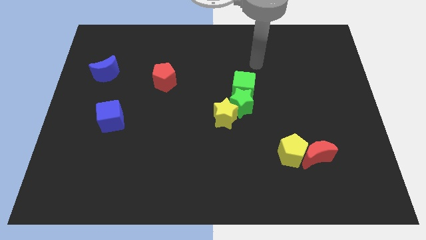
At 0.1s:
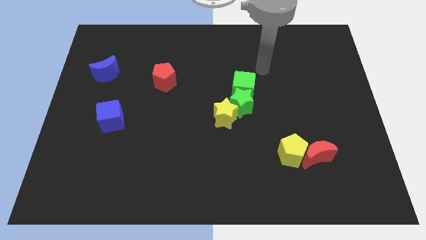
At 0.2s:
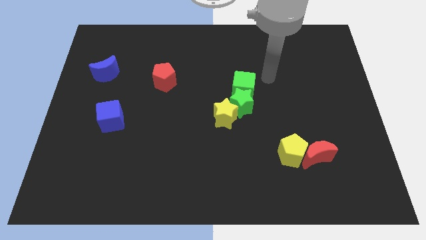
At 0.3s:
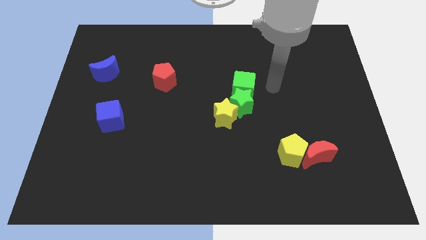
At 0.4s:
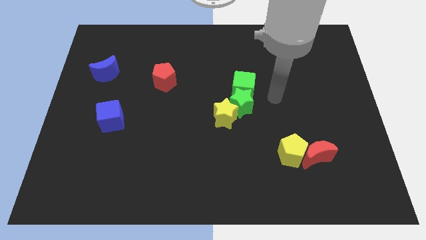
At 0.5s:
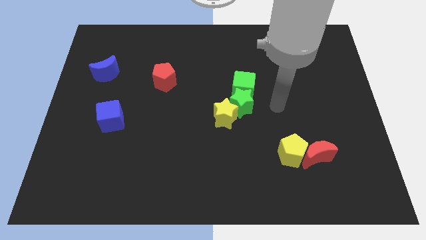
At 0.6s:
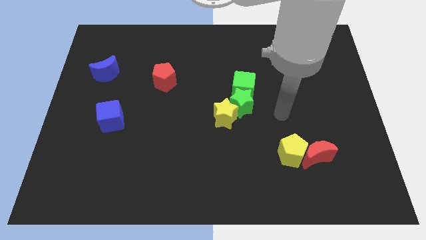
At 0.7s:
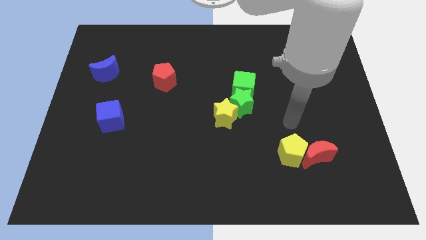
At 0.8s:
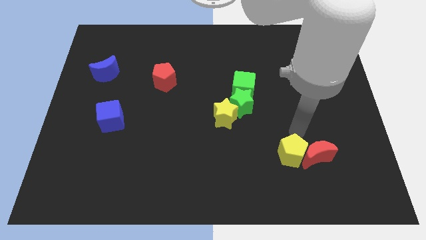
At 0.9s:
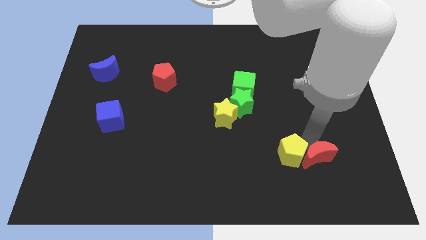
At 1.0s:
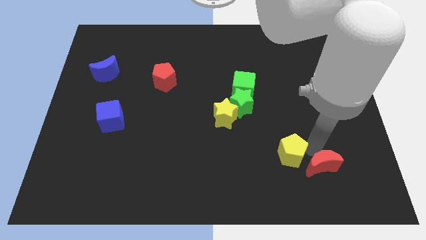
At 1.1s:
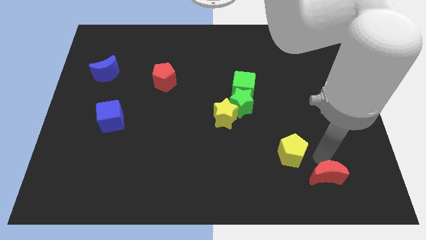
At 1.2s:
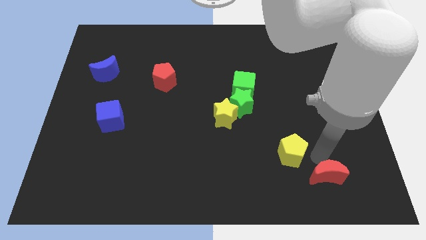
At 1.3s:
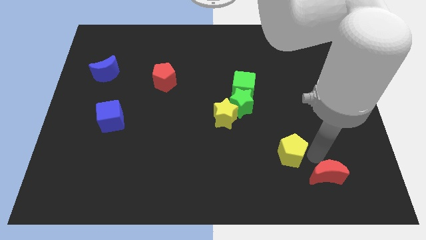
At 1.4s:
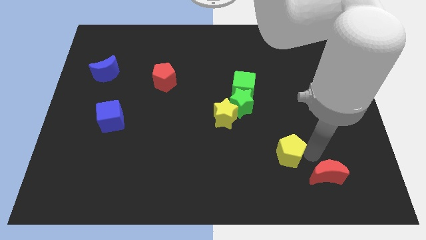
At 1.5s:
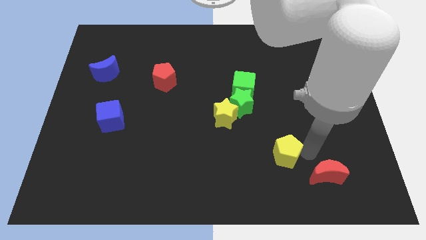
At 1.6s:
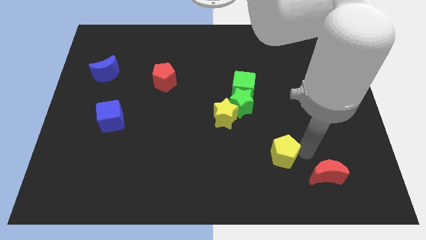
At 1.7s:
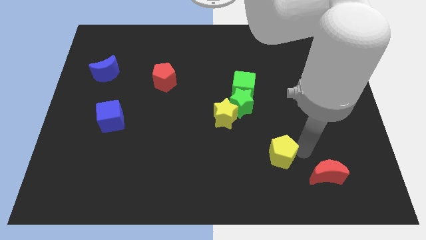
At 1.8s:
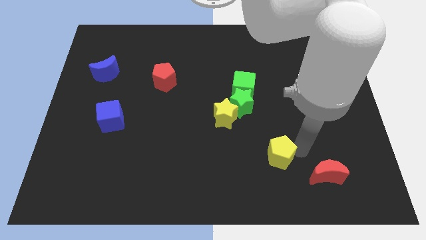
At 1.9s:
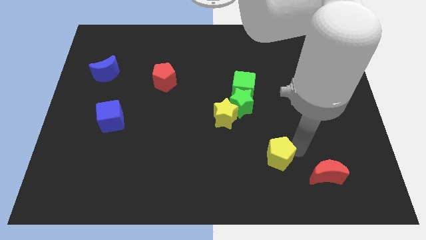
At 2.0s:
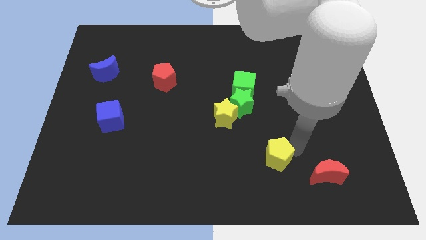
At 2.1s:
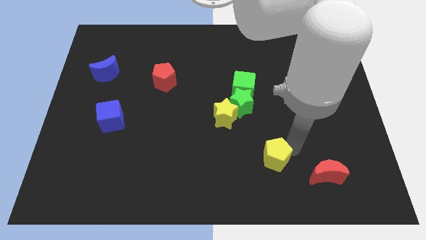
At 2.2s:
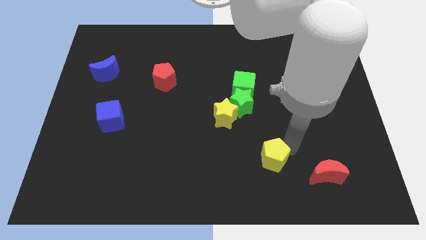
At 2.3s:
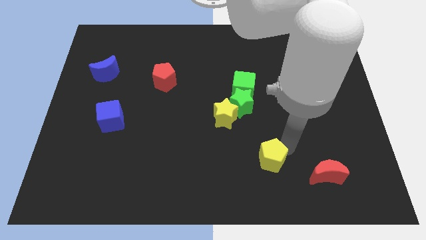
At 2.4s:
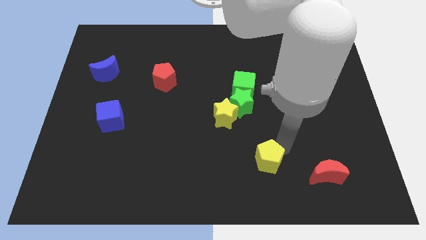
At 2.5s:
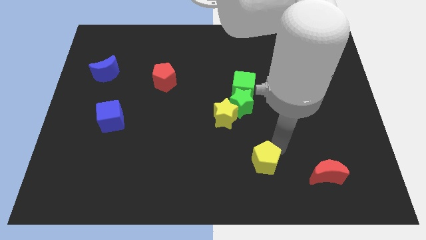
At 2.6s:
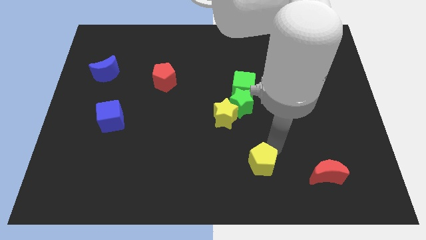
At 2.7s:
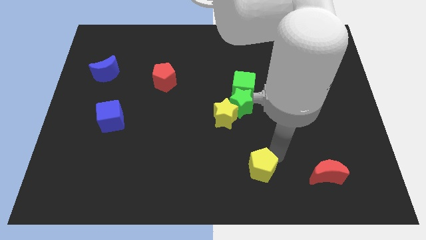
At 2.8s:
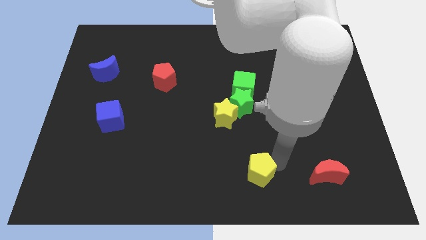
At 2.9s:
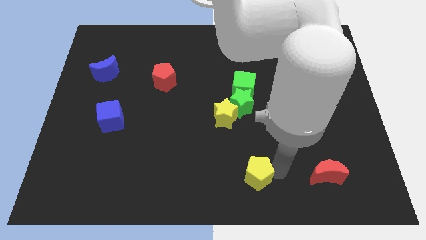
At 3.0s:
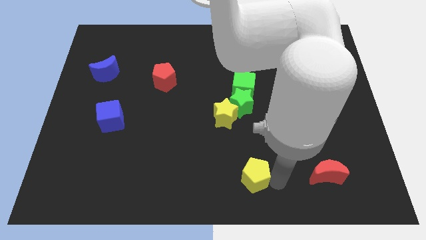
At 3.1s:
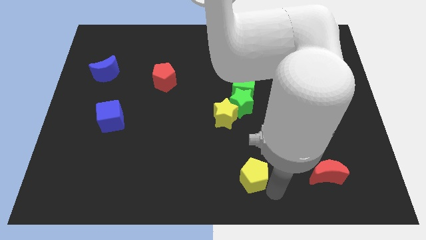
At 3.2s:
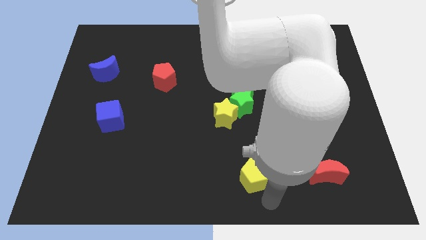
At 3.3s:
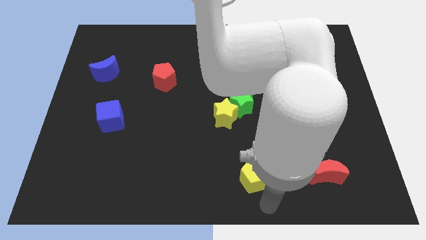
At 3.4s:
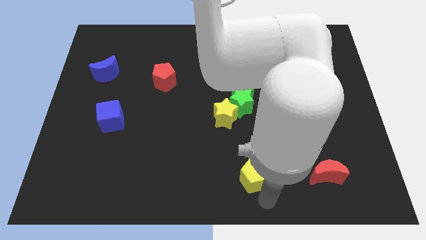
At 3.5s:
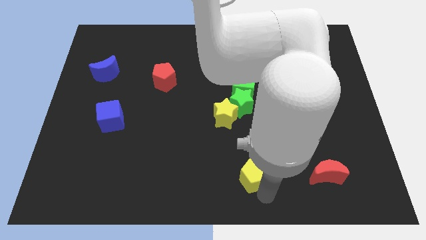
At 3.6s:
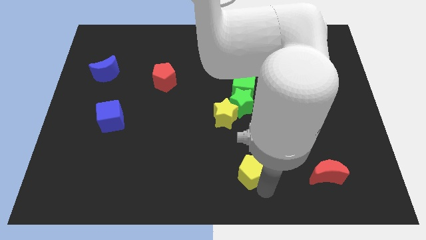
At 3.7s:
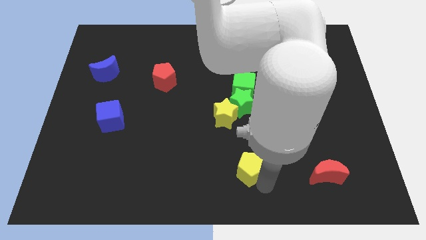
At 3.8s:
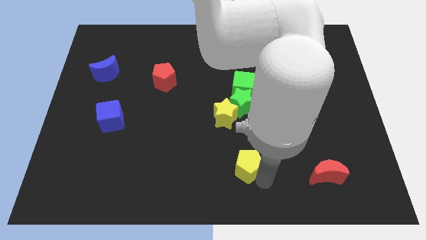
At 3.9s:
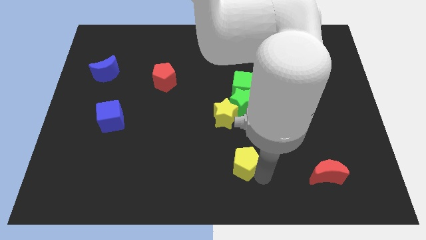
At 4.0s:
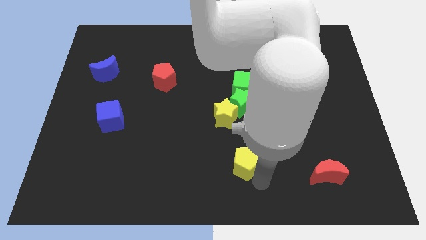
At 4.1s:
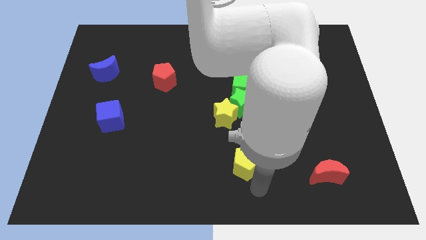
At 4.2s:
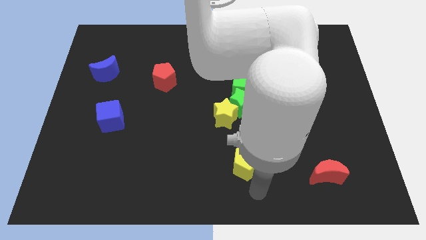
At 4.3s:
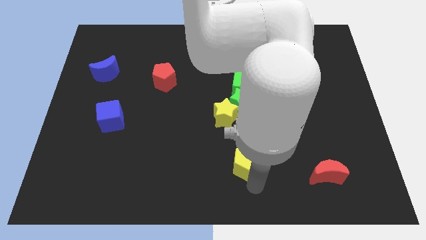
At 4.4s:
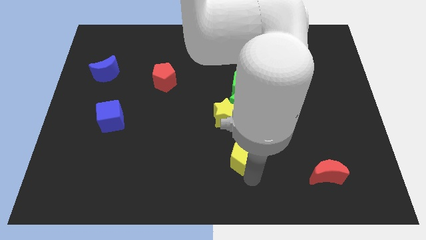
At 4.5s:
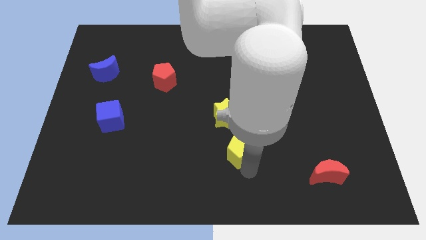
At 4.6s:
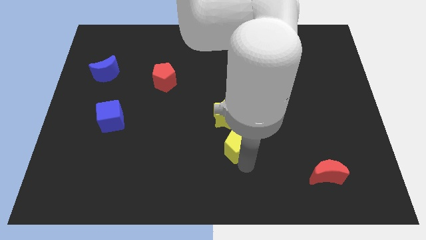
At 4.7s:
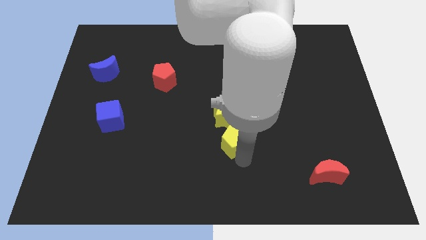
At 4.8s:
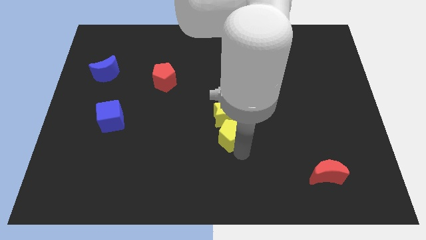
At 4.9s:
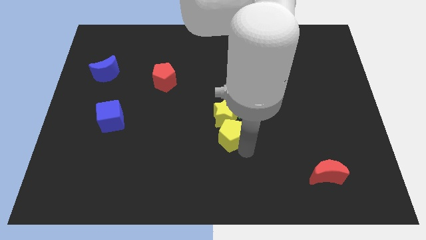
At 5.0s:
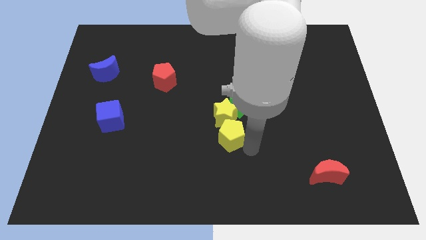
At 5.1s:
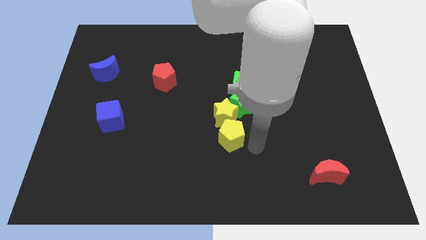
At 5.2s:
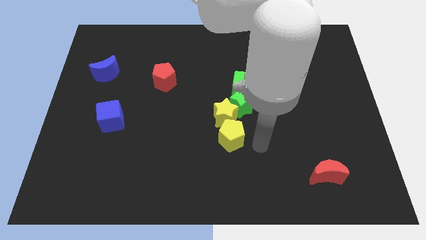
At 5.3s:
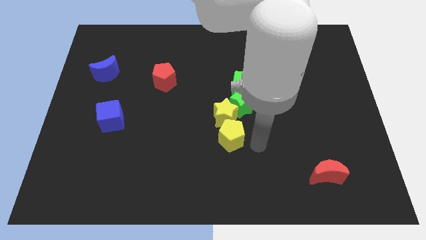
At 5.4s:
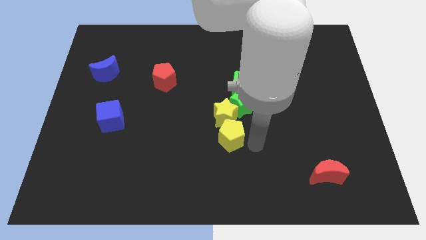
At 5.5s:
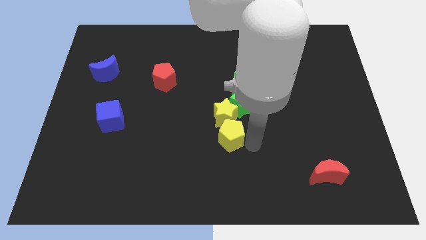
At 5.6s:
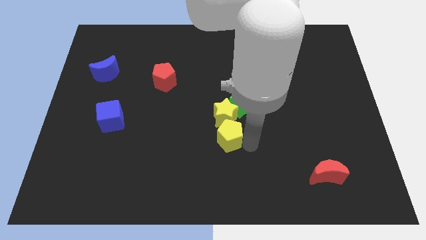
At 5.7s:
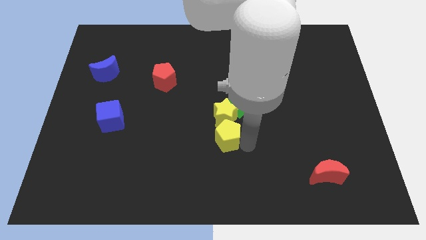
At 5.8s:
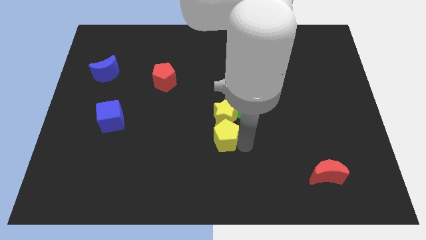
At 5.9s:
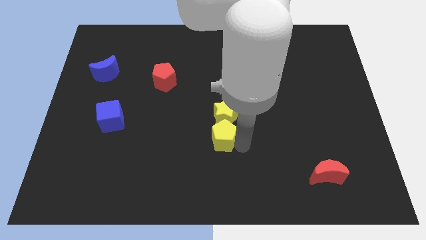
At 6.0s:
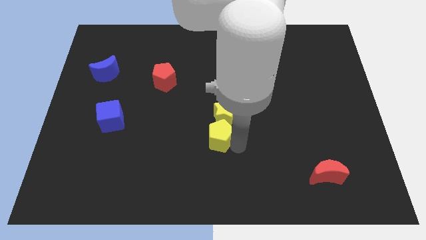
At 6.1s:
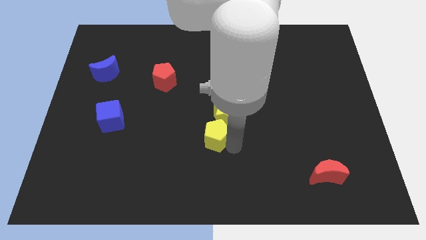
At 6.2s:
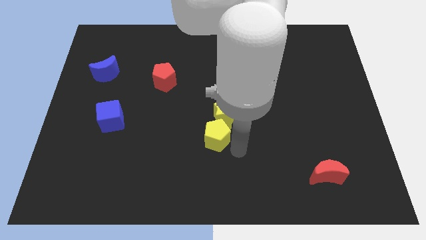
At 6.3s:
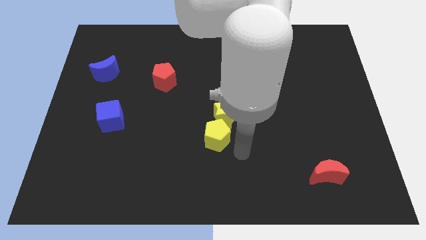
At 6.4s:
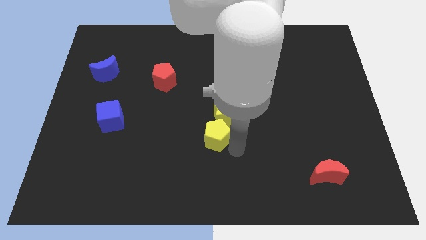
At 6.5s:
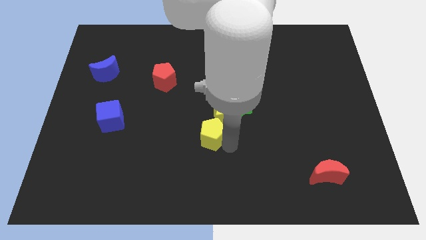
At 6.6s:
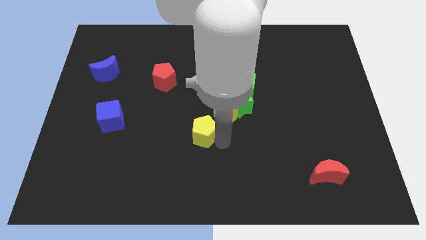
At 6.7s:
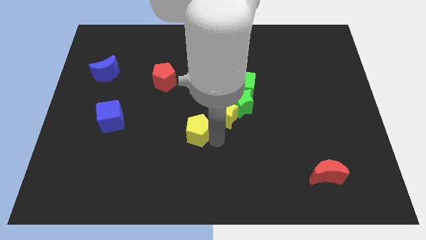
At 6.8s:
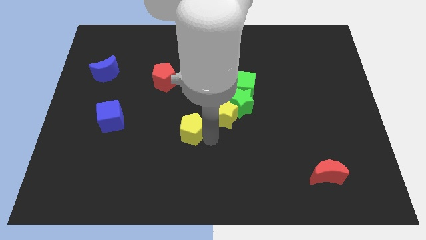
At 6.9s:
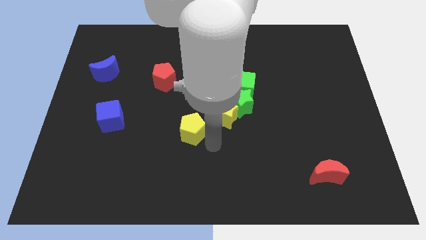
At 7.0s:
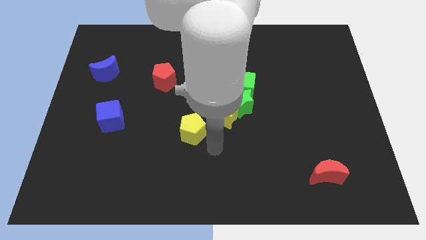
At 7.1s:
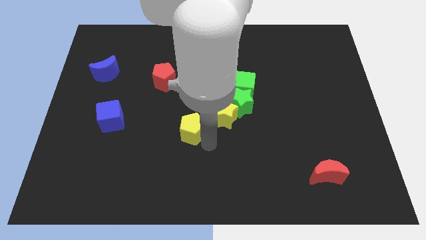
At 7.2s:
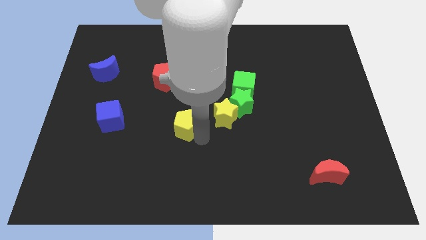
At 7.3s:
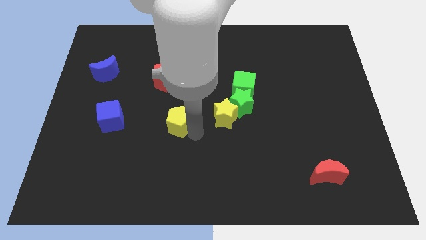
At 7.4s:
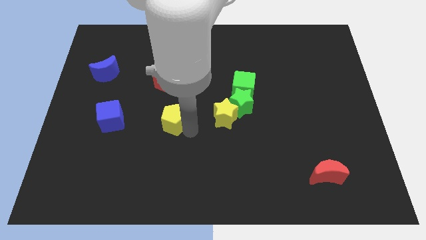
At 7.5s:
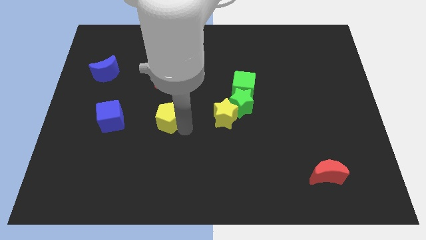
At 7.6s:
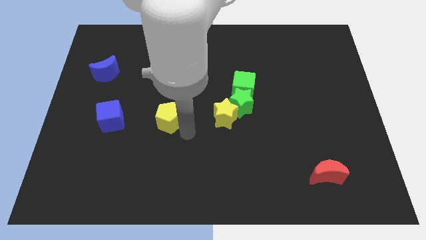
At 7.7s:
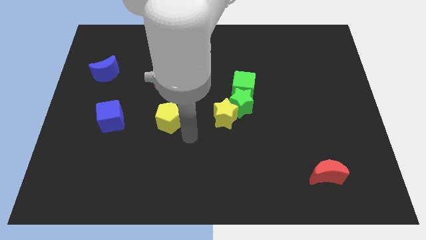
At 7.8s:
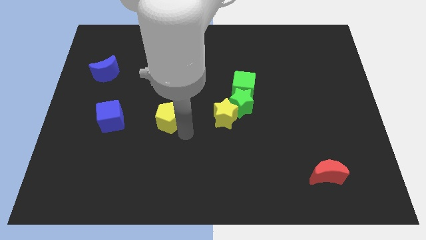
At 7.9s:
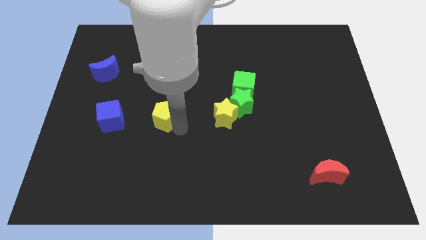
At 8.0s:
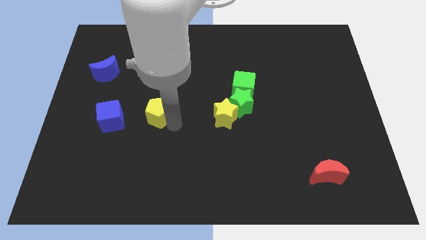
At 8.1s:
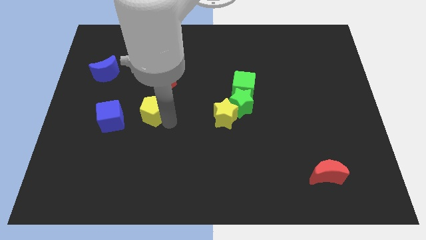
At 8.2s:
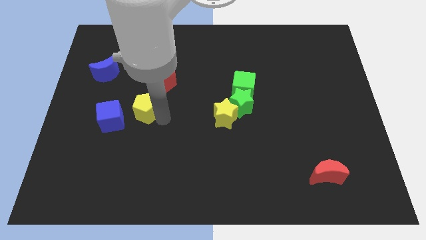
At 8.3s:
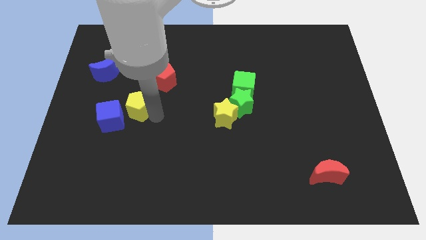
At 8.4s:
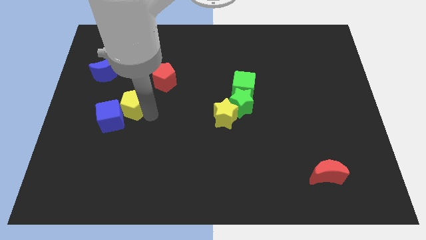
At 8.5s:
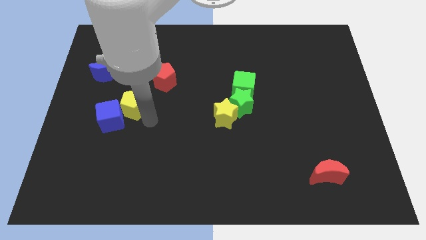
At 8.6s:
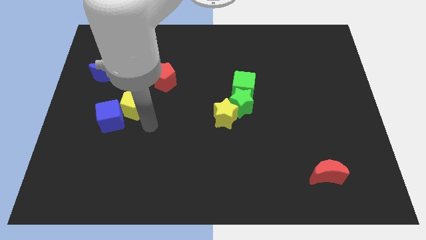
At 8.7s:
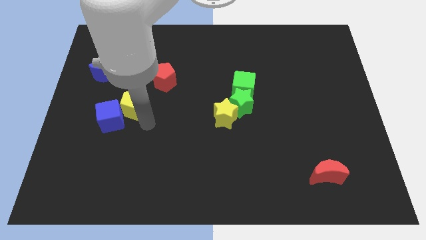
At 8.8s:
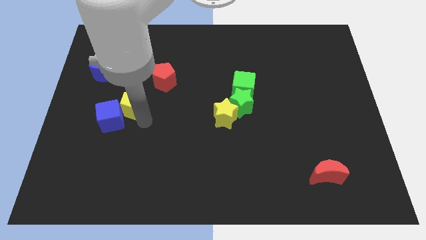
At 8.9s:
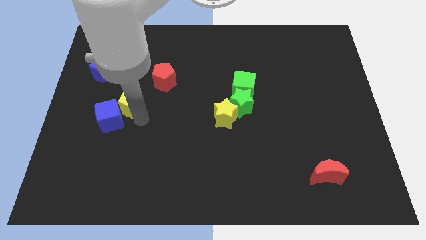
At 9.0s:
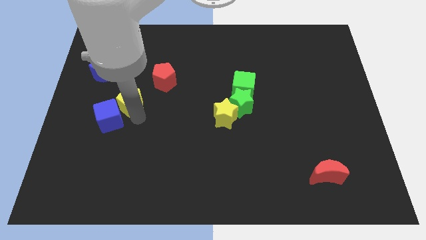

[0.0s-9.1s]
move the yellow pentagon above the blue cube
